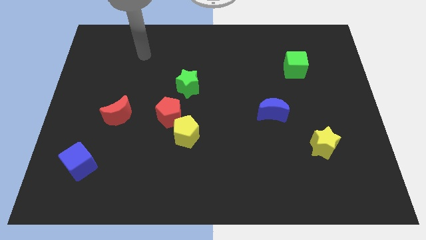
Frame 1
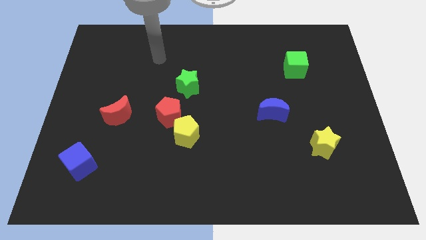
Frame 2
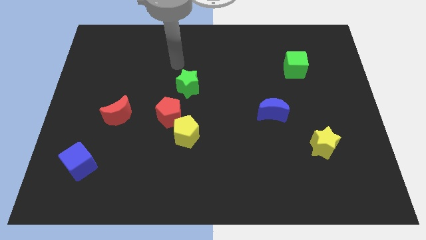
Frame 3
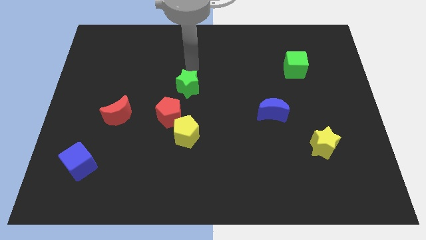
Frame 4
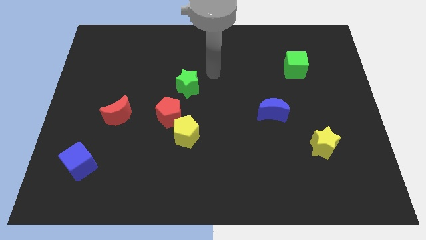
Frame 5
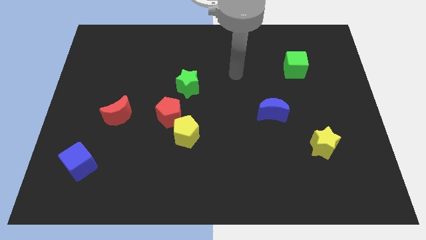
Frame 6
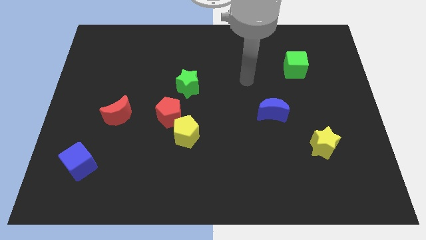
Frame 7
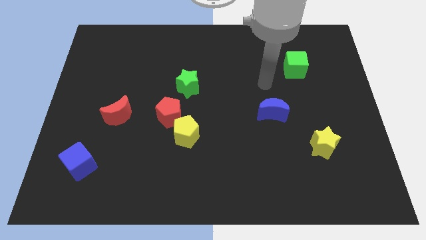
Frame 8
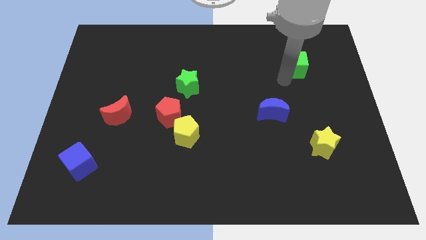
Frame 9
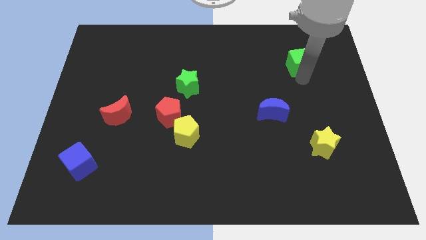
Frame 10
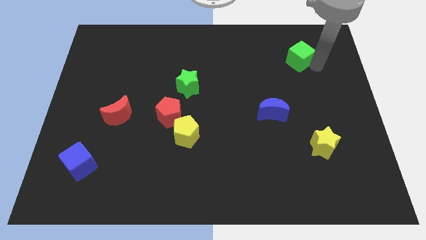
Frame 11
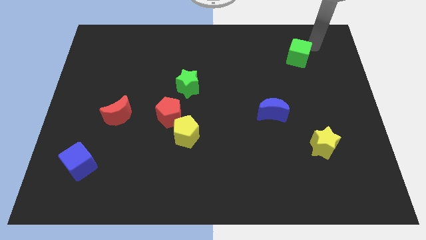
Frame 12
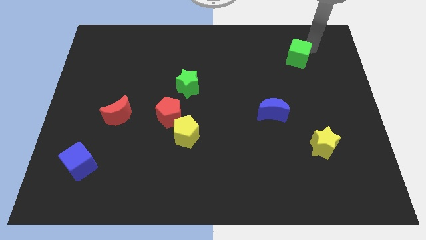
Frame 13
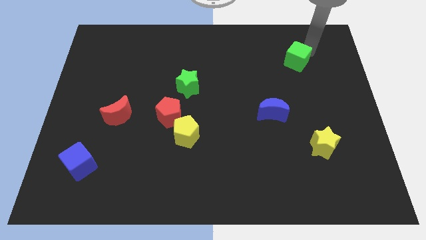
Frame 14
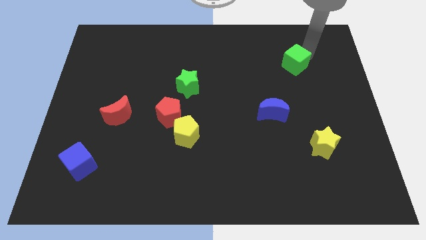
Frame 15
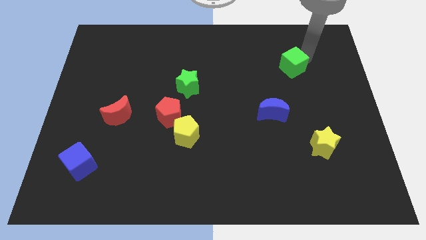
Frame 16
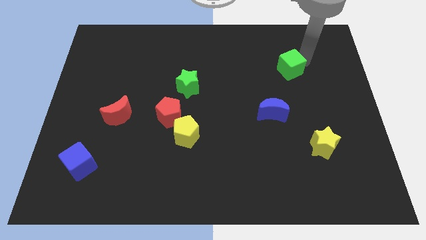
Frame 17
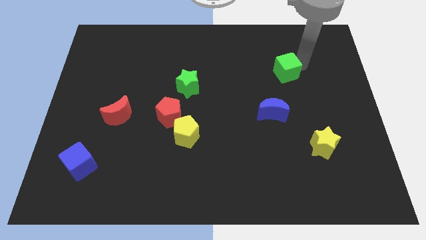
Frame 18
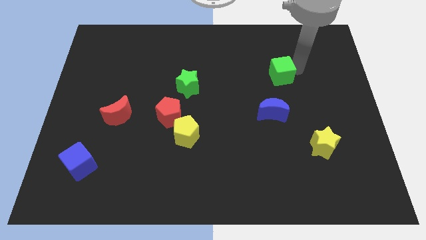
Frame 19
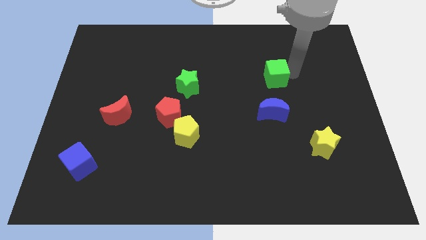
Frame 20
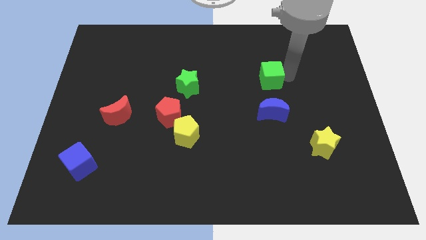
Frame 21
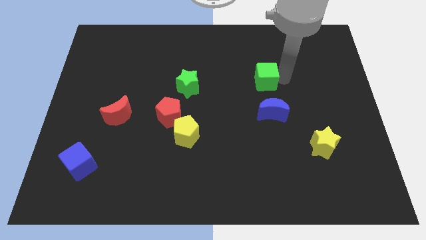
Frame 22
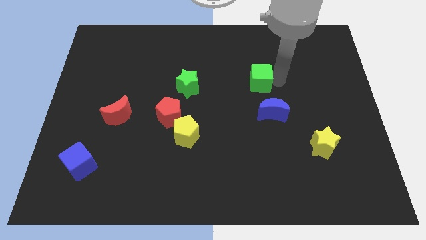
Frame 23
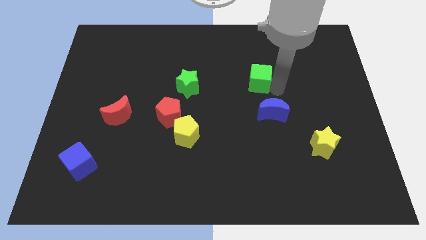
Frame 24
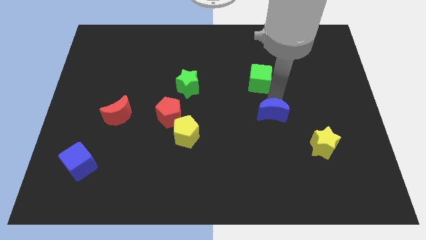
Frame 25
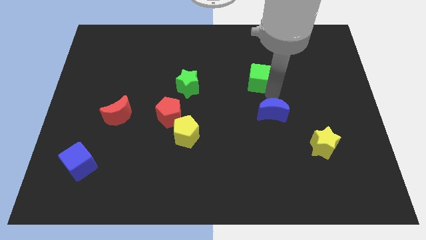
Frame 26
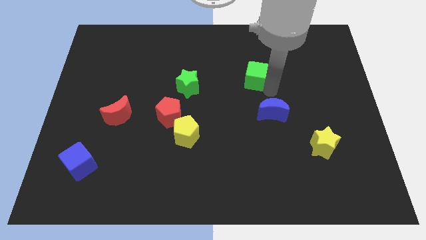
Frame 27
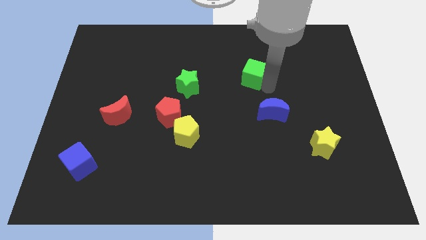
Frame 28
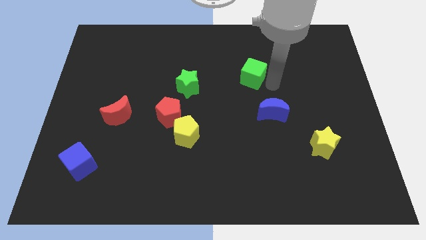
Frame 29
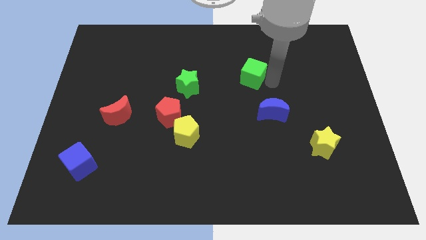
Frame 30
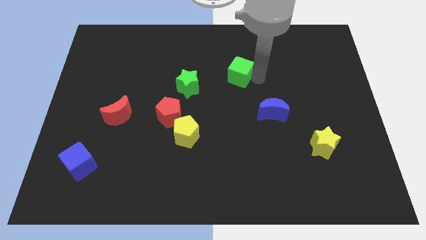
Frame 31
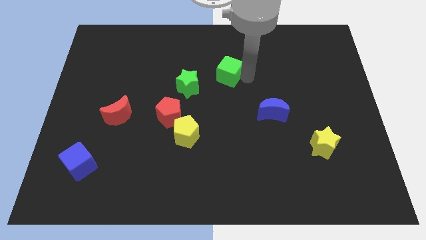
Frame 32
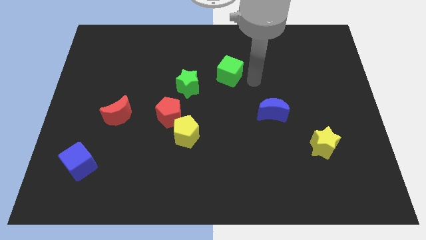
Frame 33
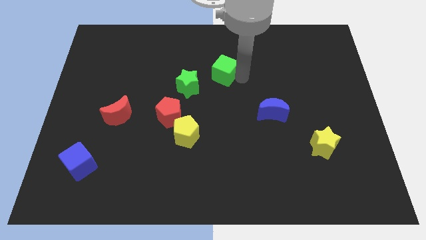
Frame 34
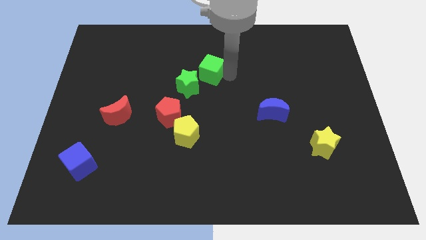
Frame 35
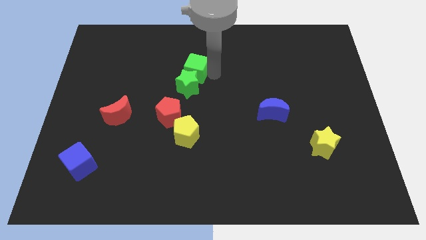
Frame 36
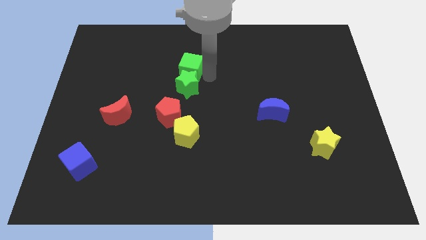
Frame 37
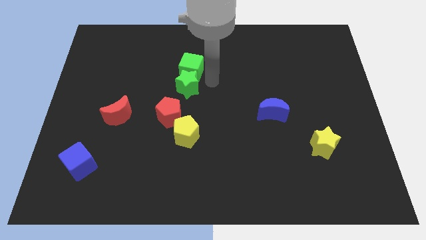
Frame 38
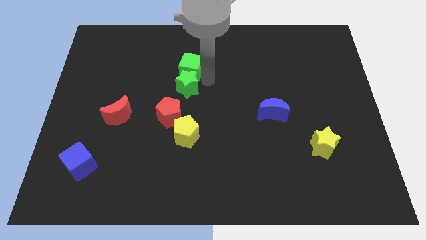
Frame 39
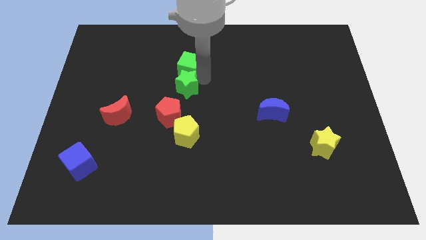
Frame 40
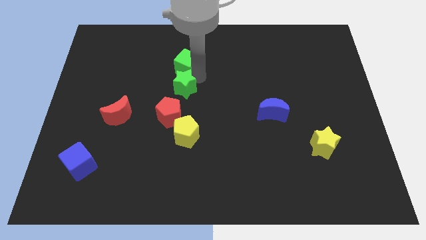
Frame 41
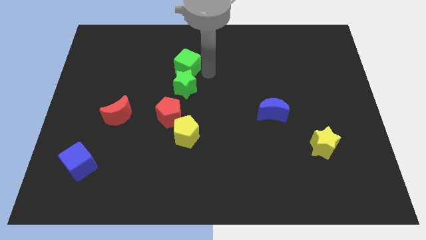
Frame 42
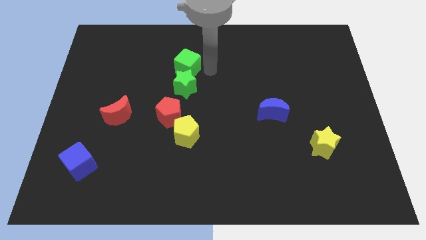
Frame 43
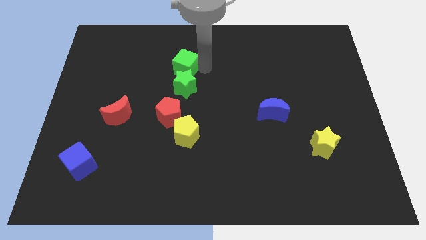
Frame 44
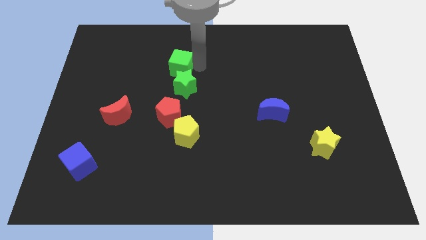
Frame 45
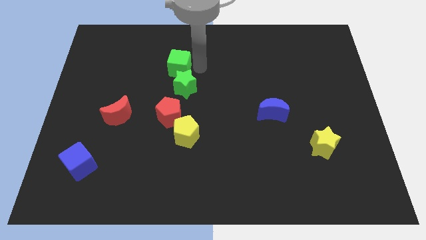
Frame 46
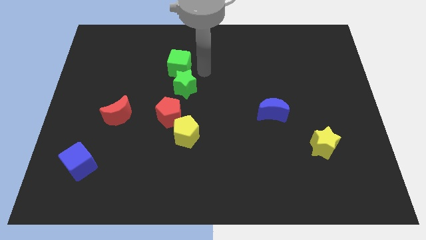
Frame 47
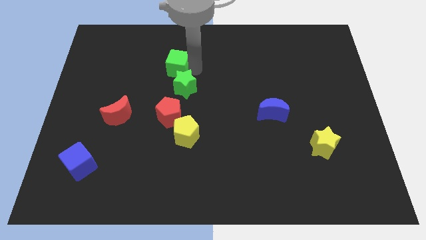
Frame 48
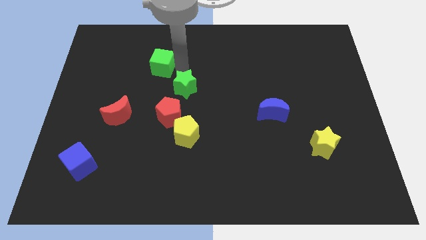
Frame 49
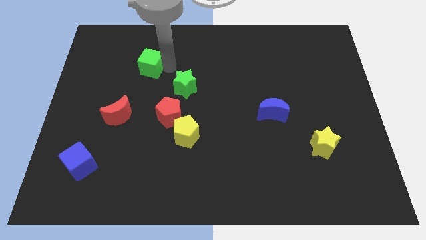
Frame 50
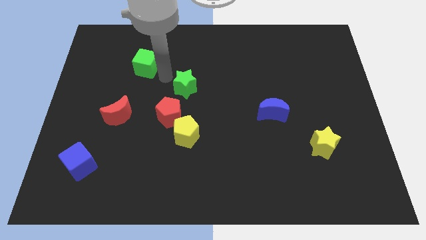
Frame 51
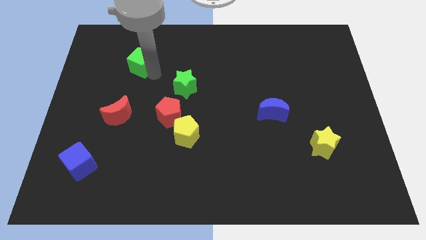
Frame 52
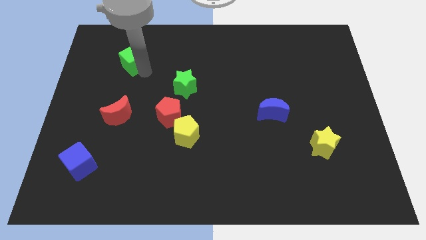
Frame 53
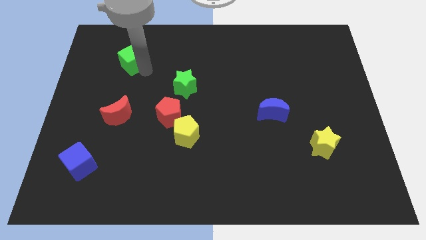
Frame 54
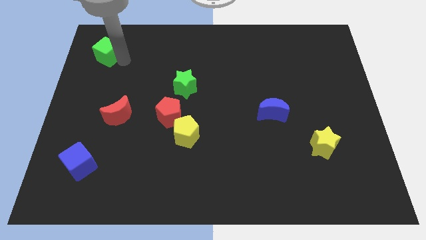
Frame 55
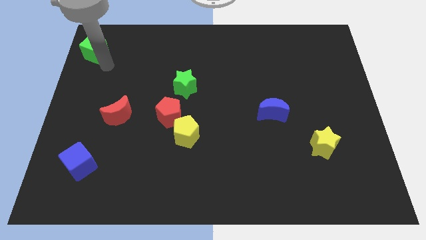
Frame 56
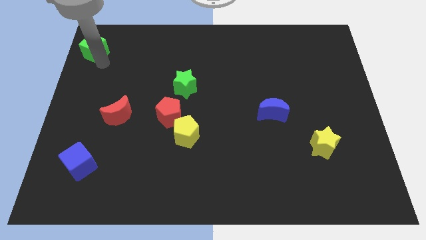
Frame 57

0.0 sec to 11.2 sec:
slide the green cube to the top left of the board

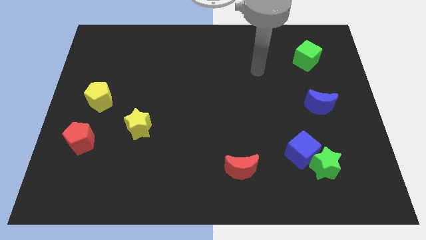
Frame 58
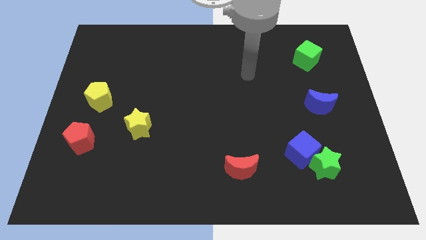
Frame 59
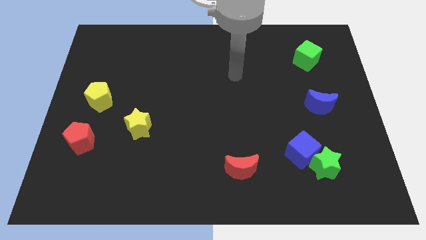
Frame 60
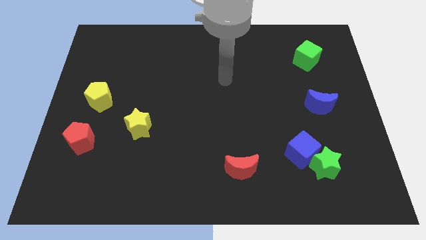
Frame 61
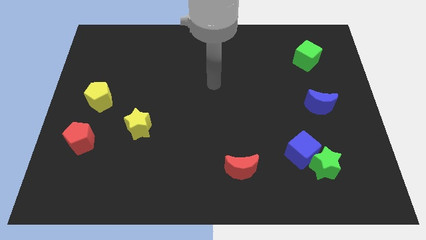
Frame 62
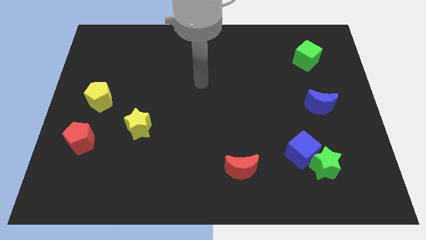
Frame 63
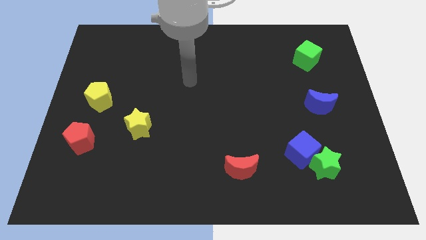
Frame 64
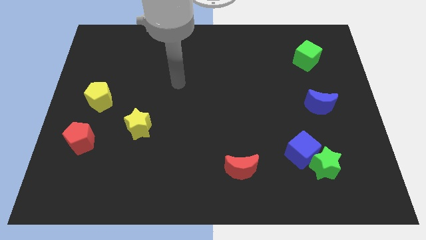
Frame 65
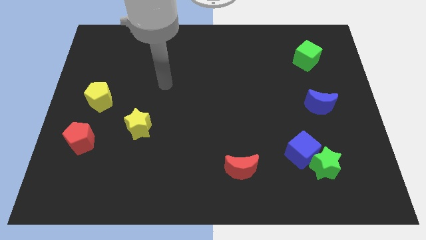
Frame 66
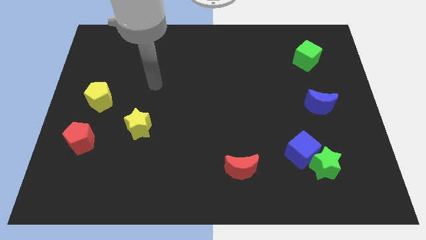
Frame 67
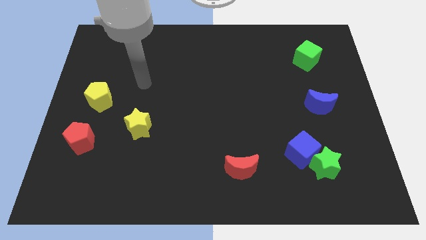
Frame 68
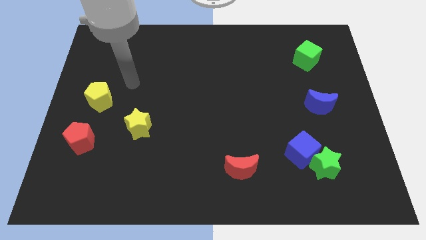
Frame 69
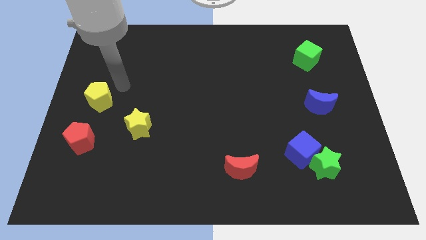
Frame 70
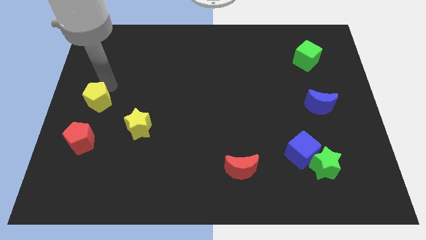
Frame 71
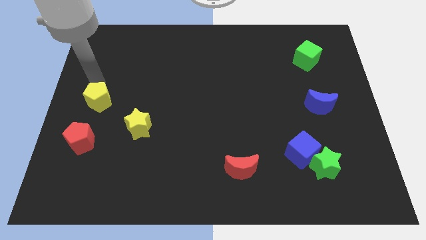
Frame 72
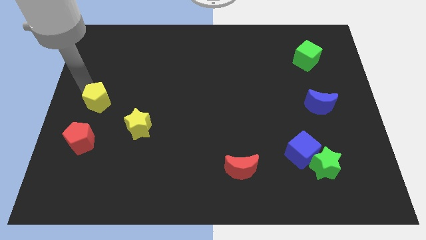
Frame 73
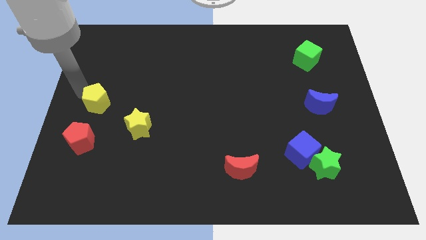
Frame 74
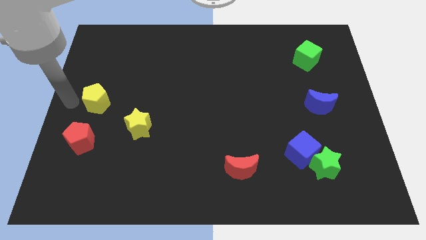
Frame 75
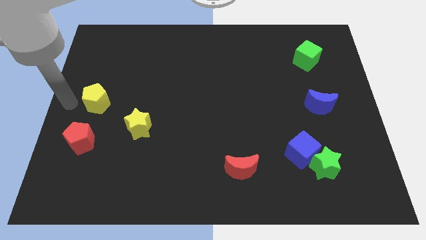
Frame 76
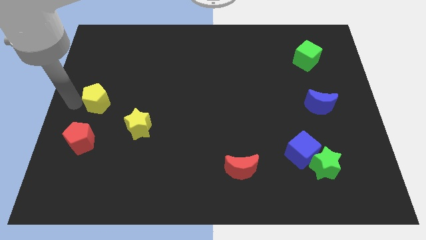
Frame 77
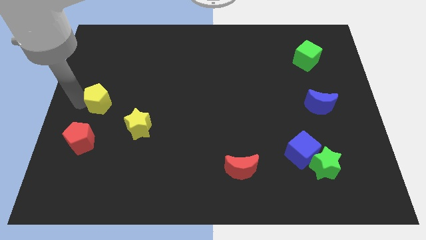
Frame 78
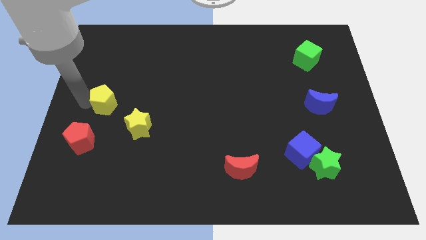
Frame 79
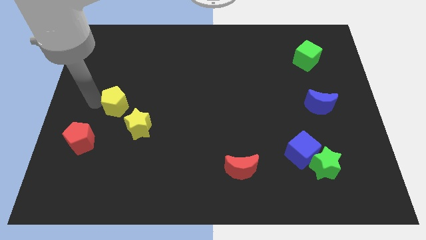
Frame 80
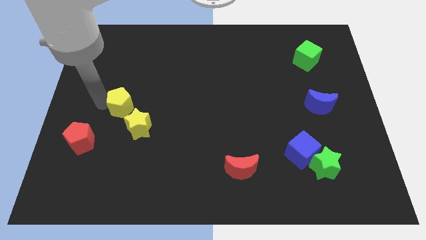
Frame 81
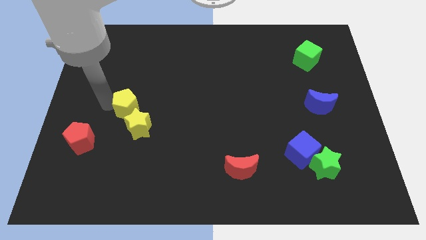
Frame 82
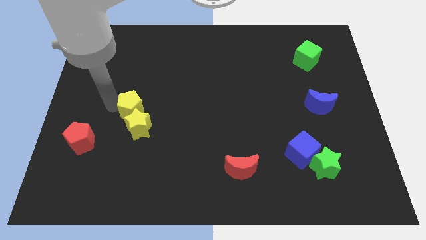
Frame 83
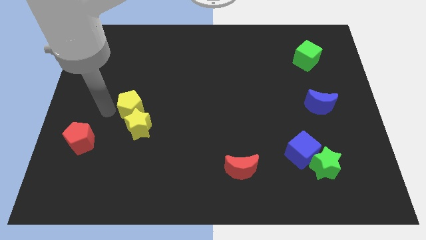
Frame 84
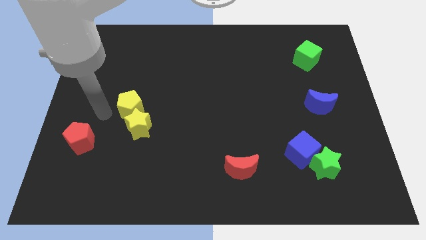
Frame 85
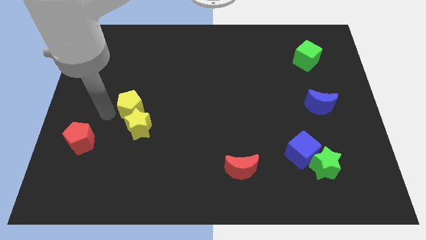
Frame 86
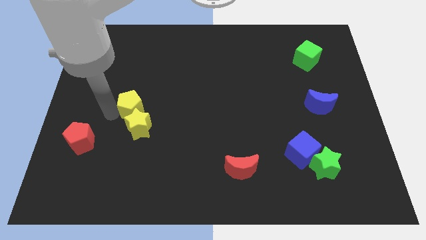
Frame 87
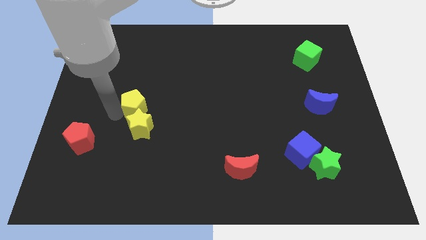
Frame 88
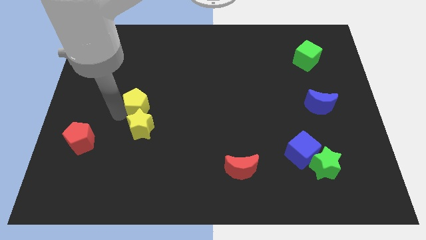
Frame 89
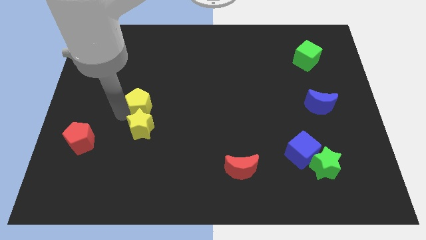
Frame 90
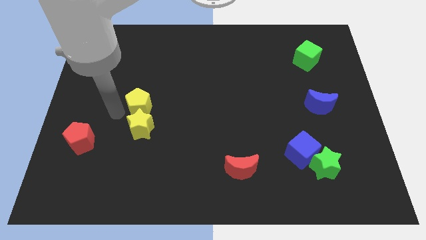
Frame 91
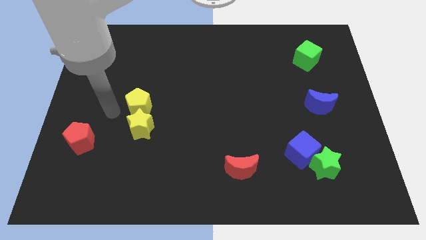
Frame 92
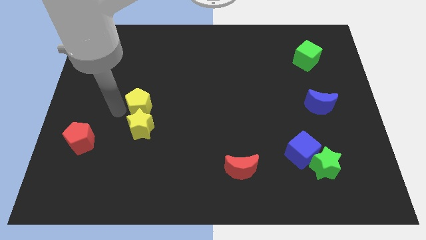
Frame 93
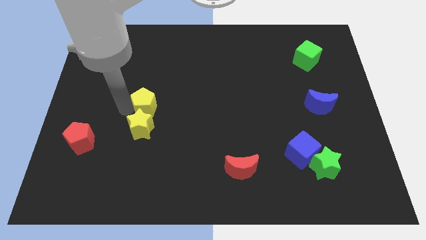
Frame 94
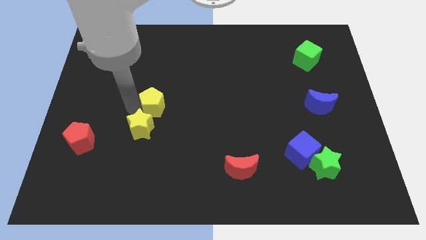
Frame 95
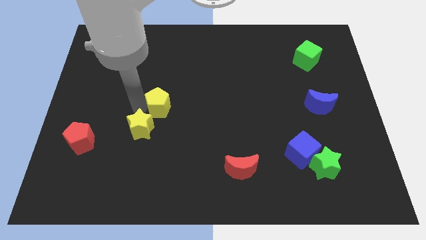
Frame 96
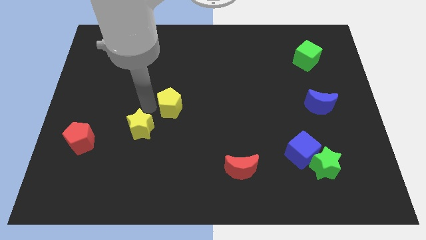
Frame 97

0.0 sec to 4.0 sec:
move the yellow pentagon to the center
